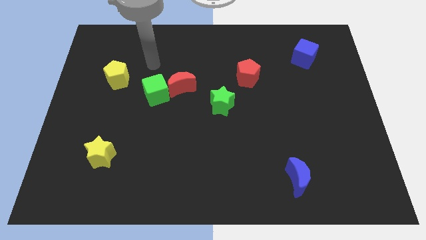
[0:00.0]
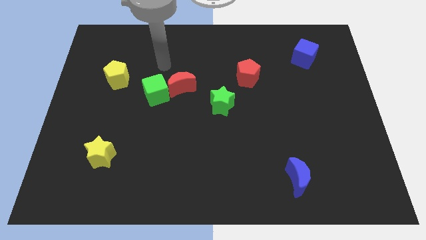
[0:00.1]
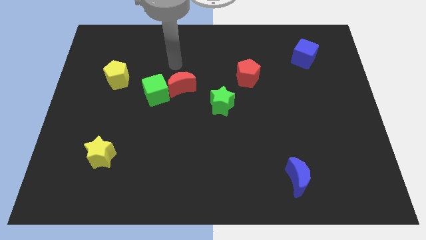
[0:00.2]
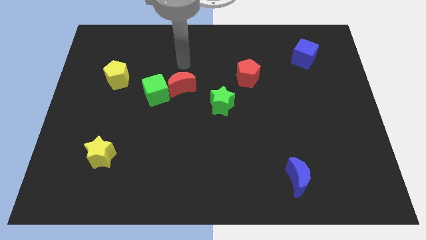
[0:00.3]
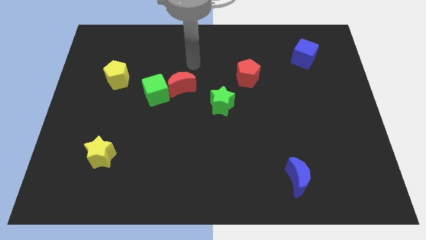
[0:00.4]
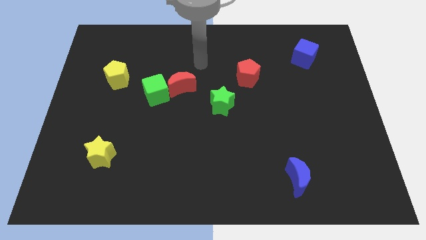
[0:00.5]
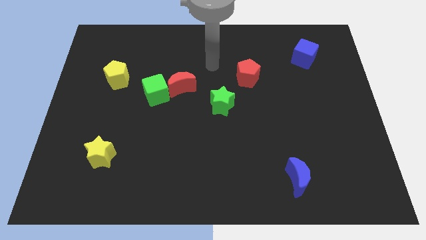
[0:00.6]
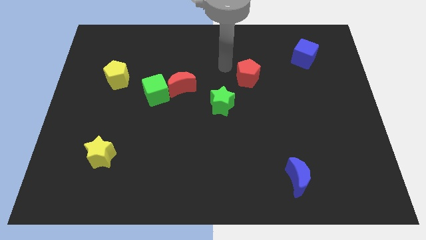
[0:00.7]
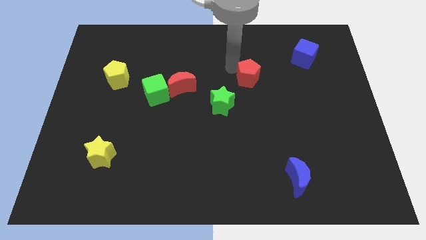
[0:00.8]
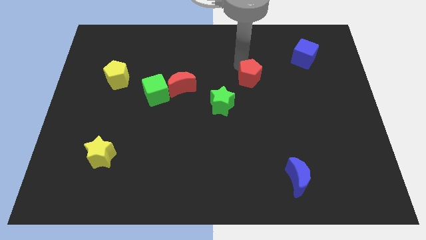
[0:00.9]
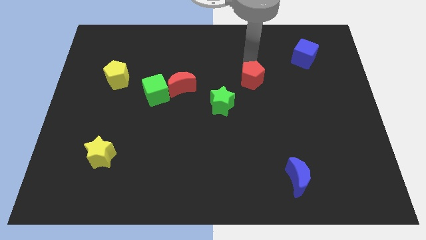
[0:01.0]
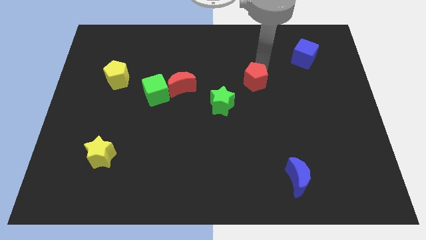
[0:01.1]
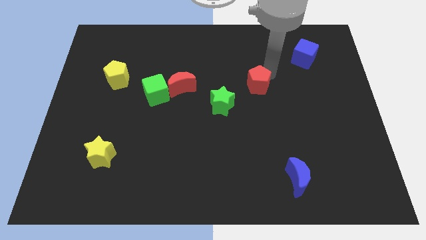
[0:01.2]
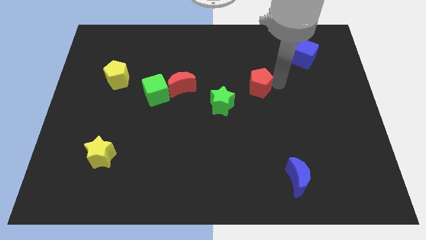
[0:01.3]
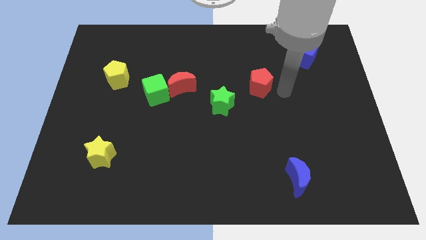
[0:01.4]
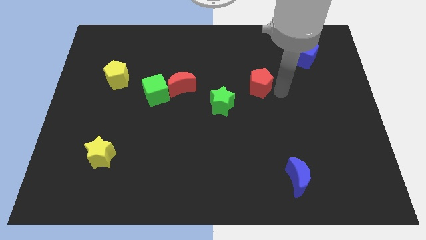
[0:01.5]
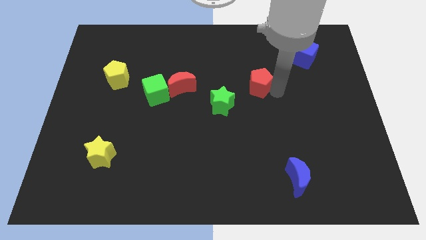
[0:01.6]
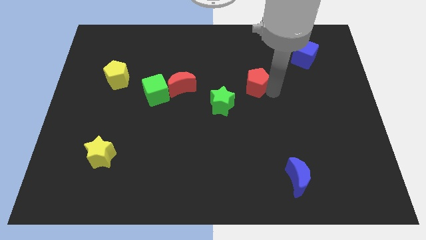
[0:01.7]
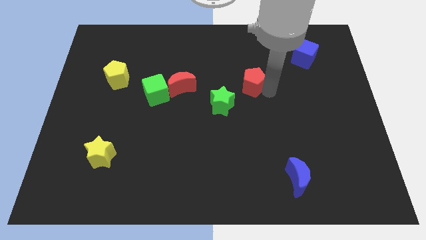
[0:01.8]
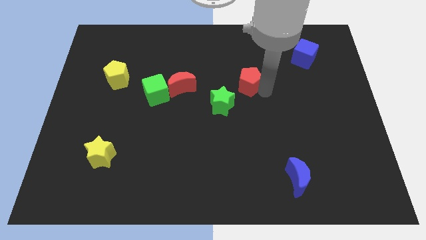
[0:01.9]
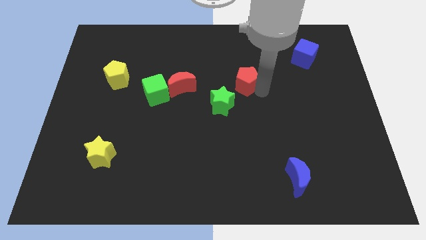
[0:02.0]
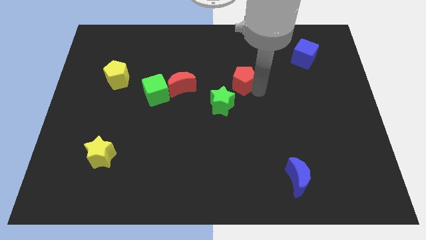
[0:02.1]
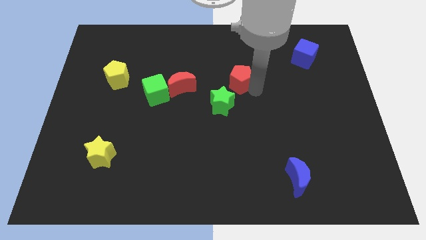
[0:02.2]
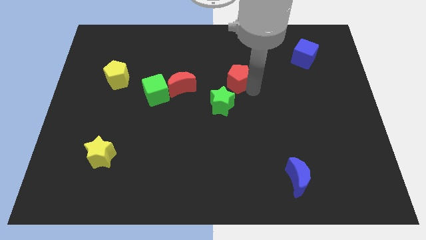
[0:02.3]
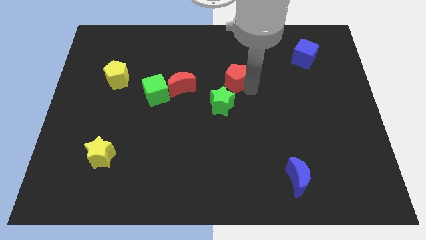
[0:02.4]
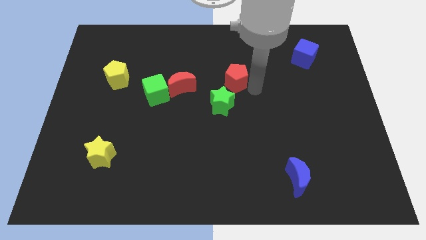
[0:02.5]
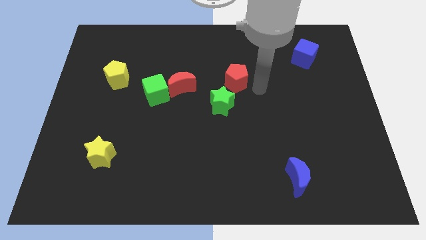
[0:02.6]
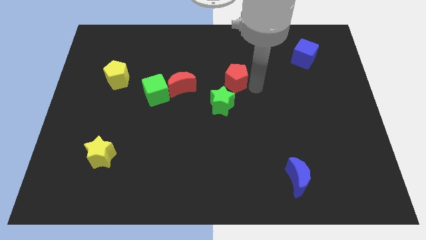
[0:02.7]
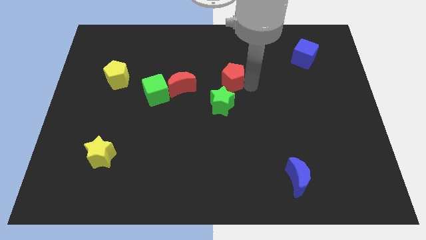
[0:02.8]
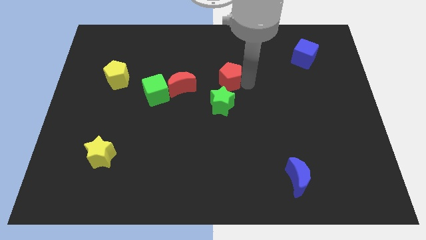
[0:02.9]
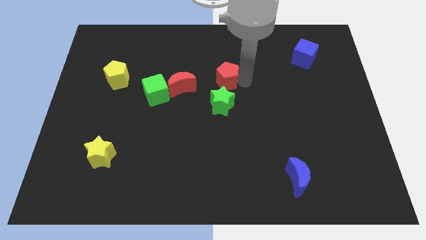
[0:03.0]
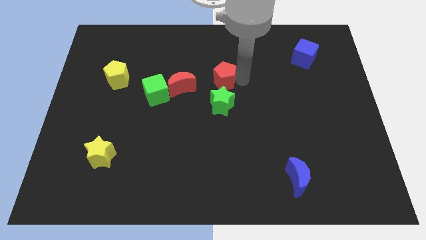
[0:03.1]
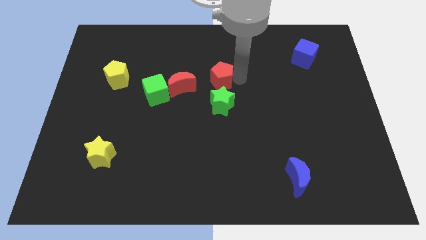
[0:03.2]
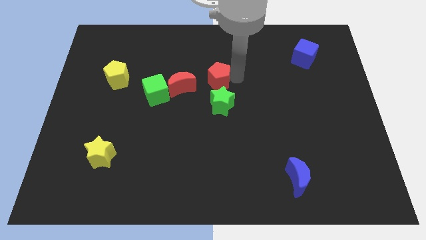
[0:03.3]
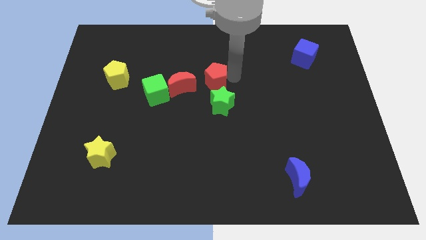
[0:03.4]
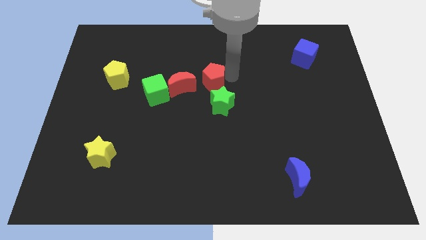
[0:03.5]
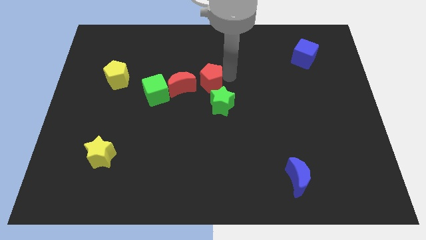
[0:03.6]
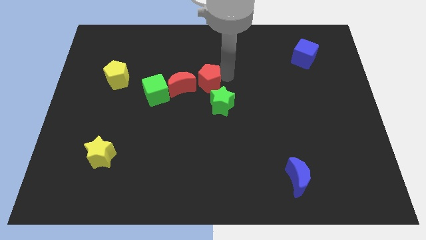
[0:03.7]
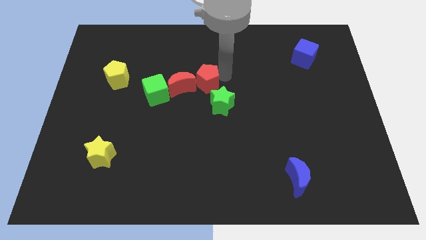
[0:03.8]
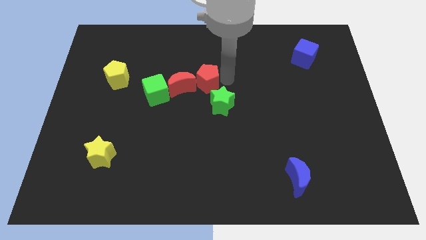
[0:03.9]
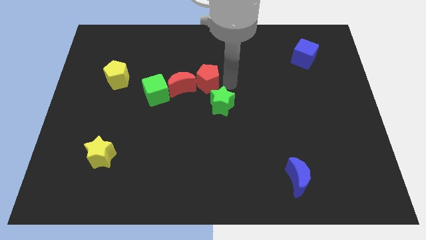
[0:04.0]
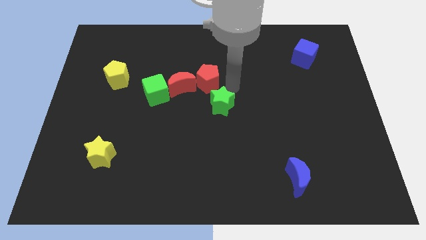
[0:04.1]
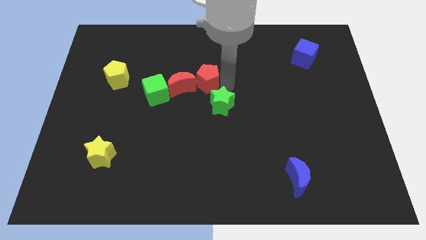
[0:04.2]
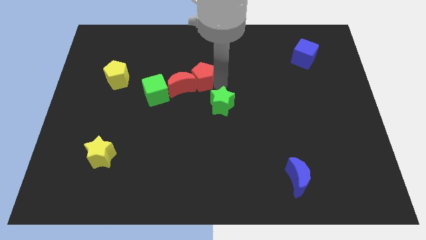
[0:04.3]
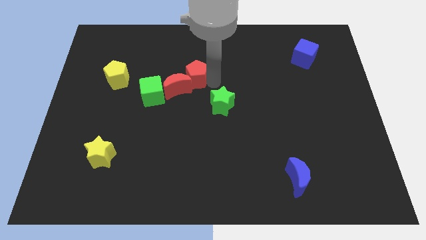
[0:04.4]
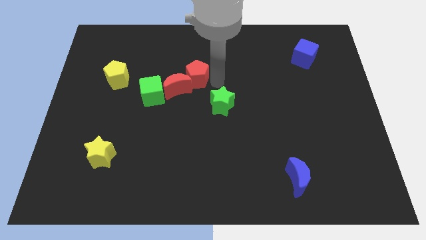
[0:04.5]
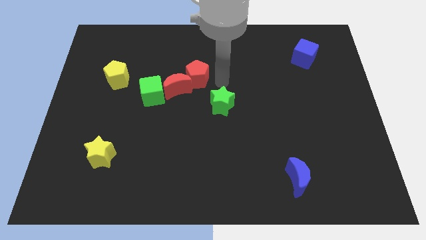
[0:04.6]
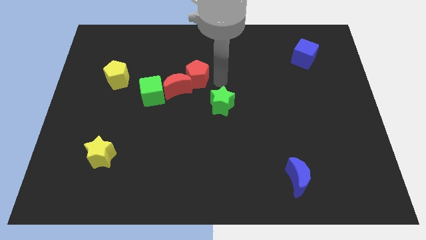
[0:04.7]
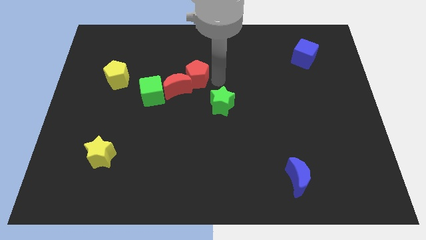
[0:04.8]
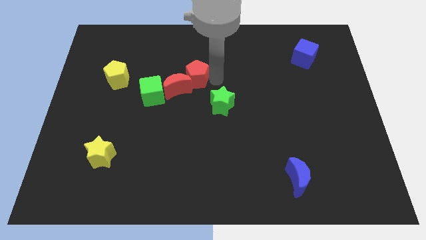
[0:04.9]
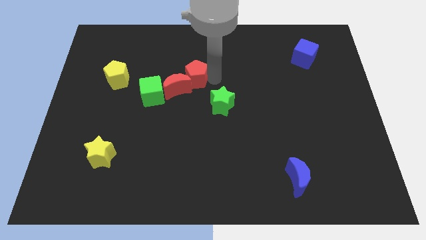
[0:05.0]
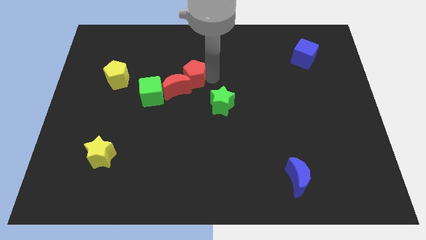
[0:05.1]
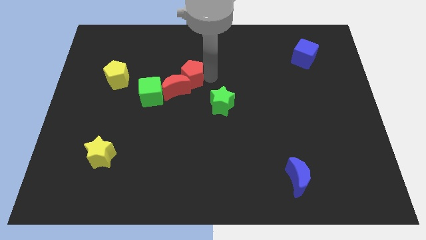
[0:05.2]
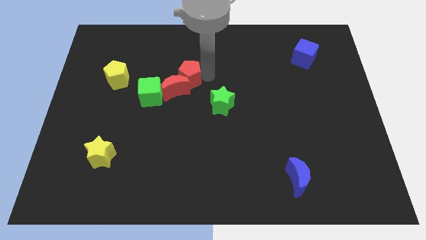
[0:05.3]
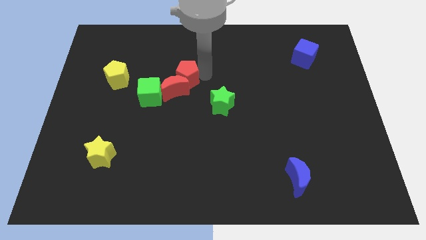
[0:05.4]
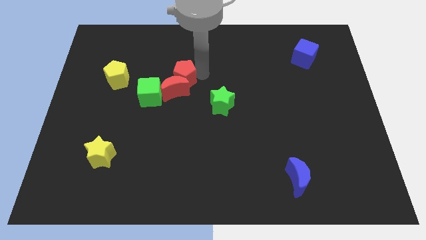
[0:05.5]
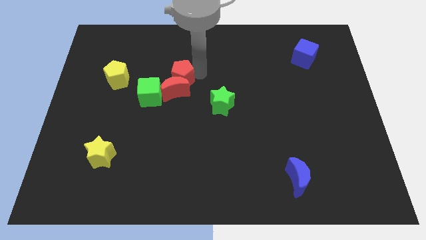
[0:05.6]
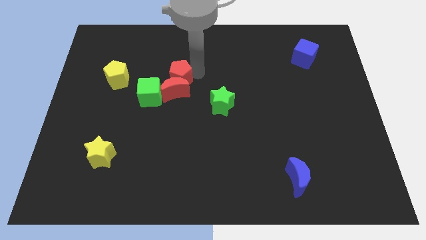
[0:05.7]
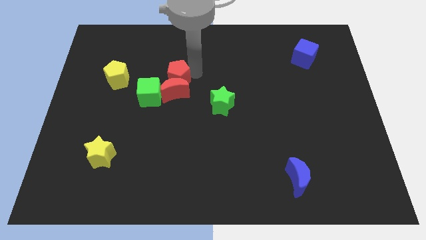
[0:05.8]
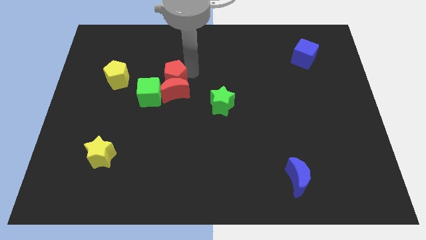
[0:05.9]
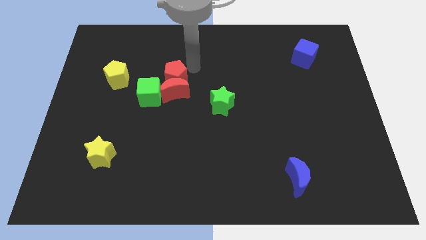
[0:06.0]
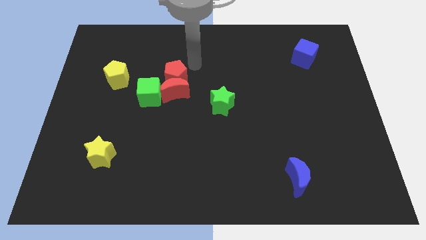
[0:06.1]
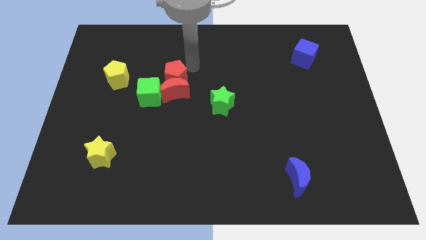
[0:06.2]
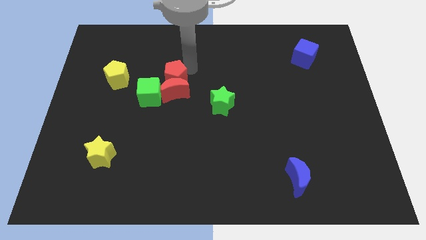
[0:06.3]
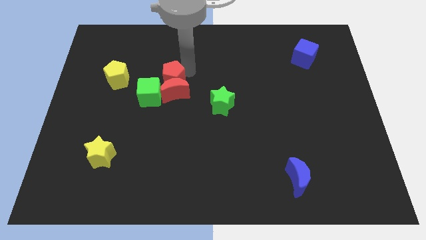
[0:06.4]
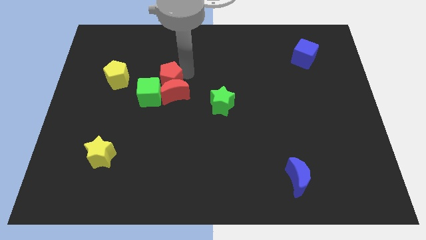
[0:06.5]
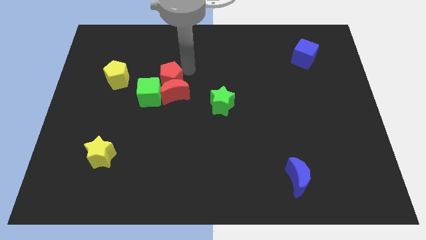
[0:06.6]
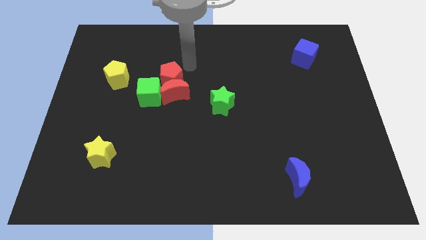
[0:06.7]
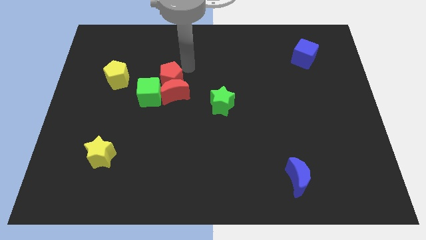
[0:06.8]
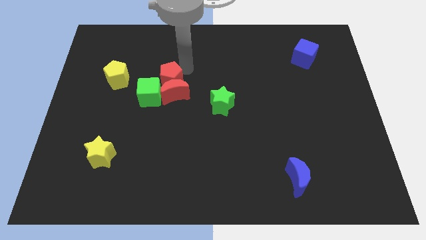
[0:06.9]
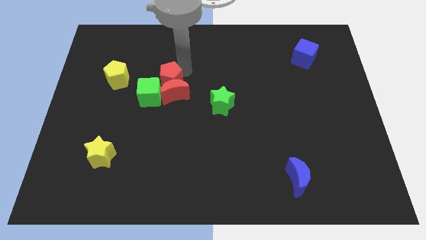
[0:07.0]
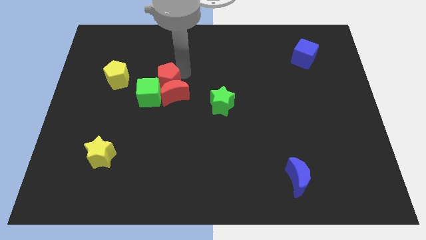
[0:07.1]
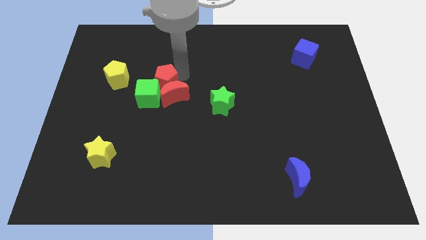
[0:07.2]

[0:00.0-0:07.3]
move the red pentagon to the green cube
